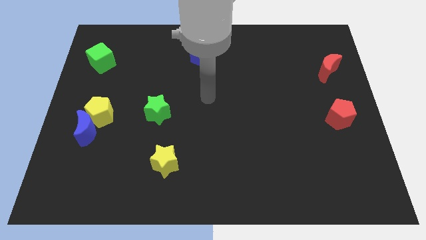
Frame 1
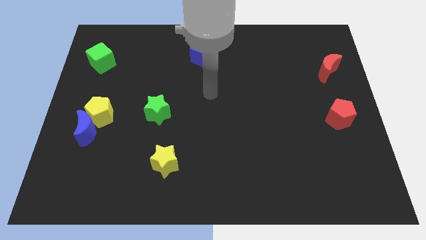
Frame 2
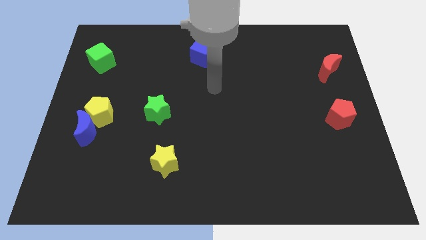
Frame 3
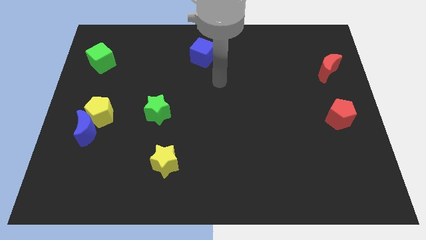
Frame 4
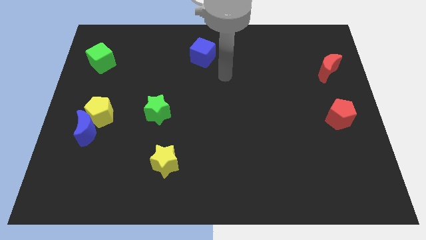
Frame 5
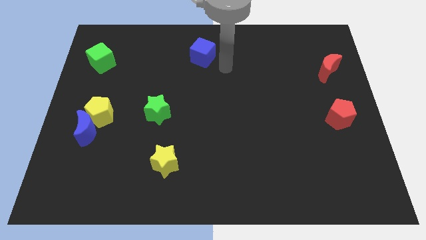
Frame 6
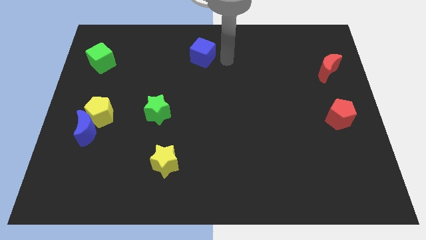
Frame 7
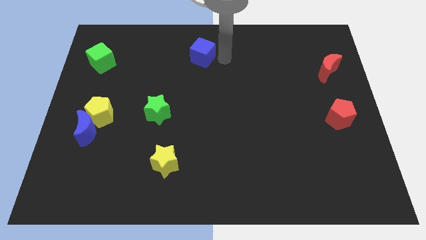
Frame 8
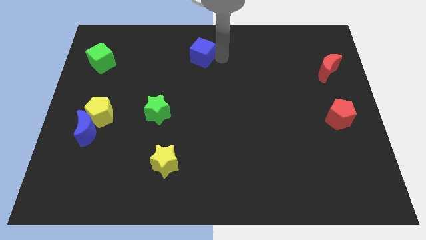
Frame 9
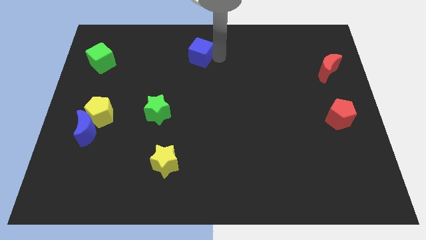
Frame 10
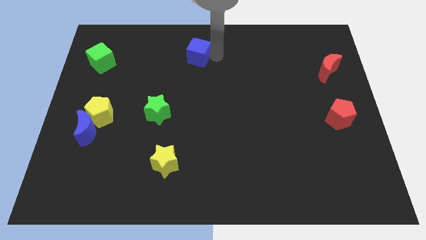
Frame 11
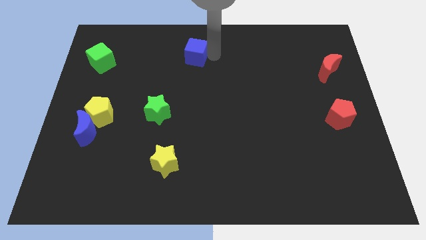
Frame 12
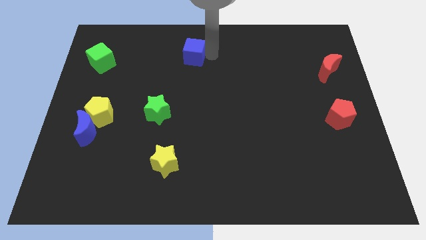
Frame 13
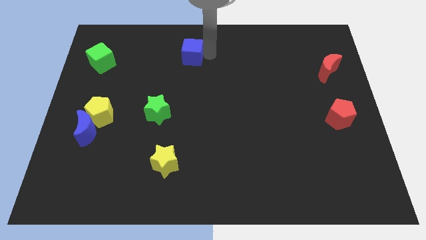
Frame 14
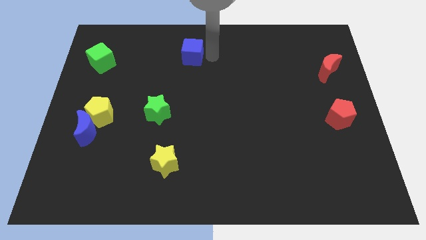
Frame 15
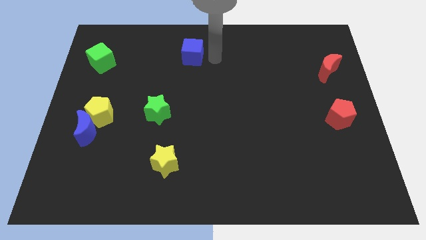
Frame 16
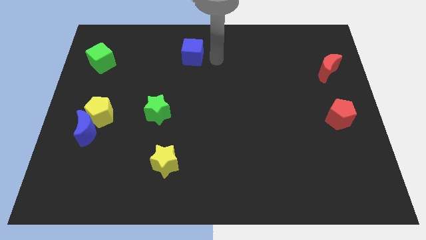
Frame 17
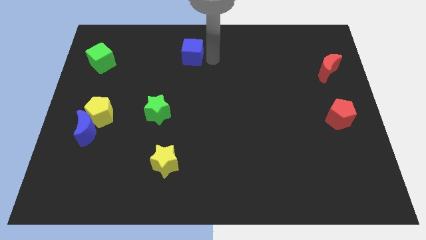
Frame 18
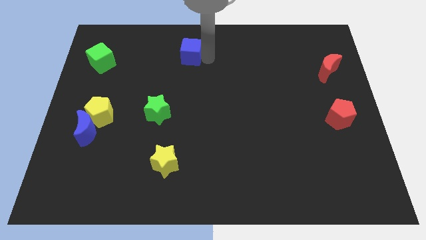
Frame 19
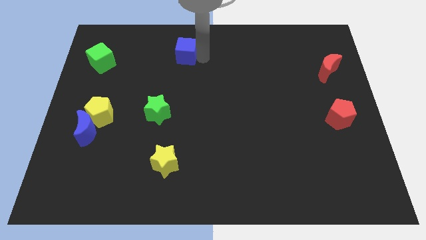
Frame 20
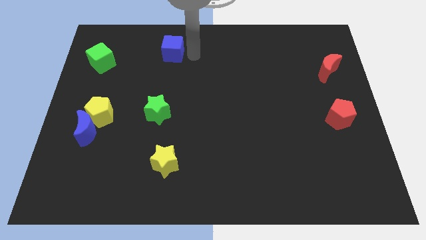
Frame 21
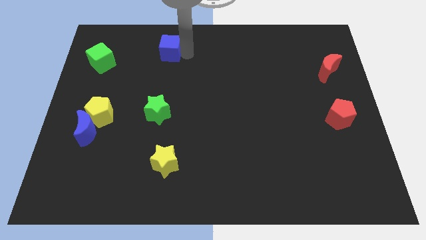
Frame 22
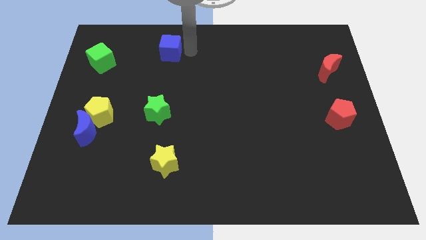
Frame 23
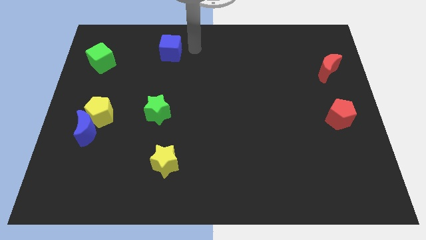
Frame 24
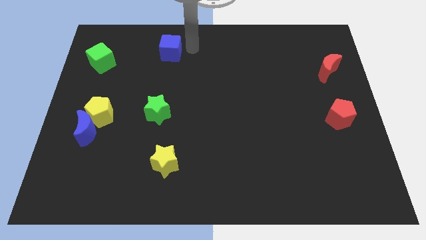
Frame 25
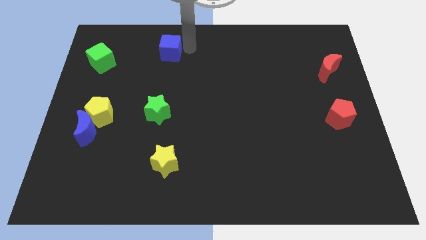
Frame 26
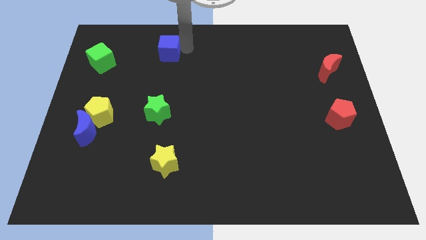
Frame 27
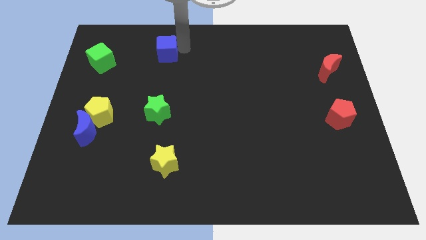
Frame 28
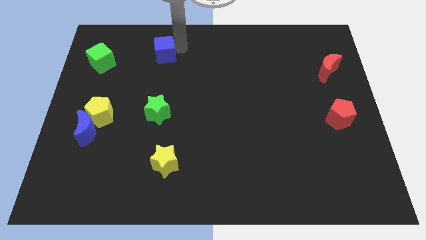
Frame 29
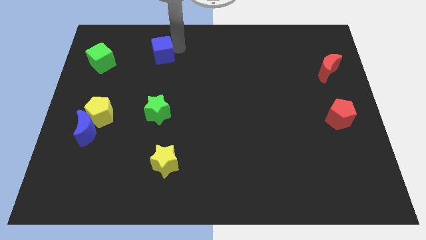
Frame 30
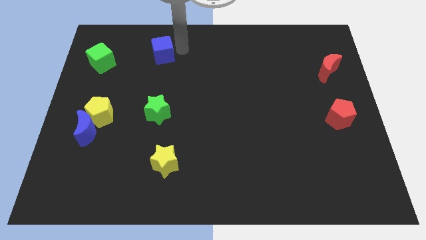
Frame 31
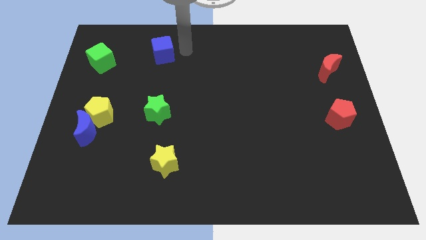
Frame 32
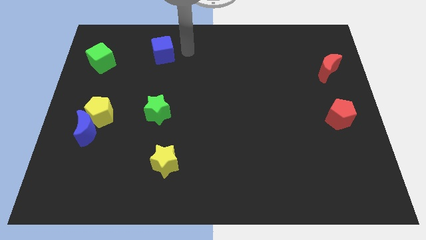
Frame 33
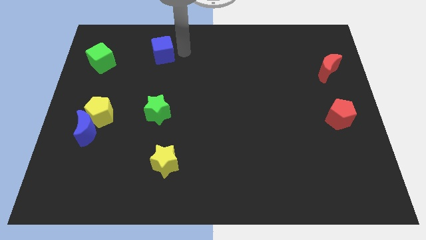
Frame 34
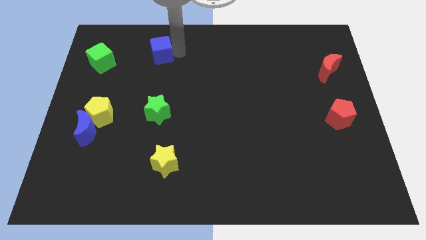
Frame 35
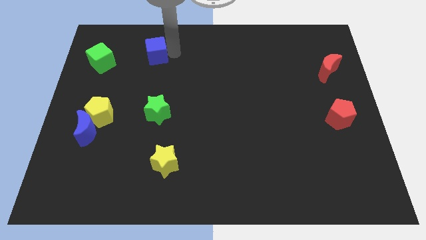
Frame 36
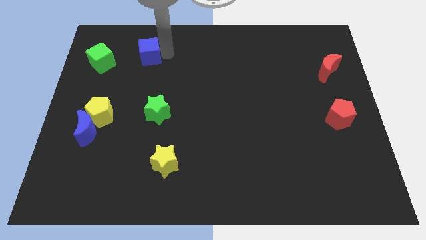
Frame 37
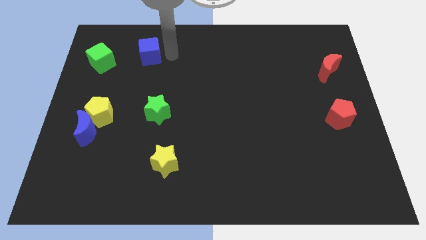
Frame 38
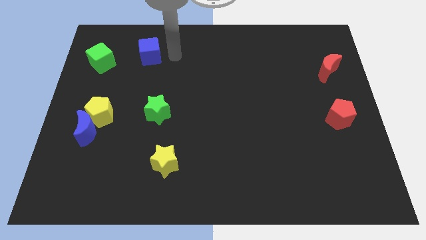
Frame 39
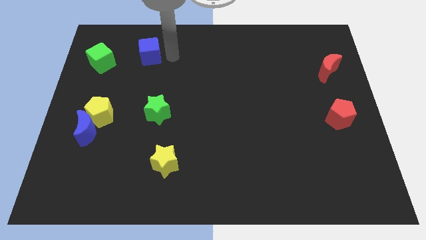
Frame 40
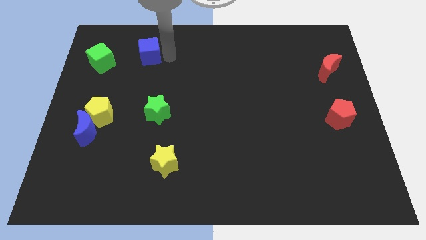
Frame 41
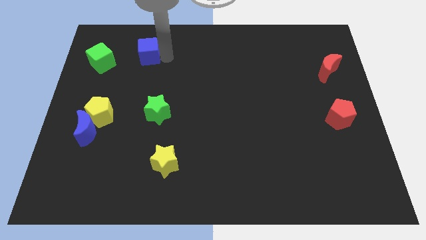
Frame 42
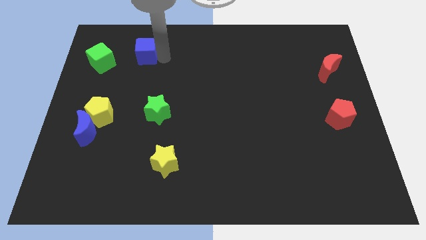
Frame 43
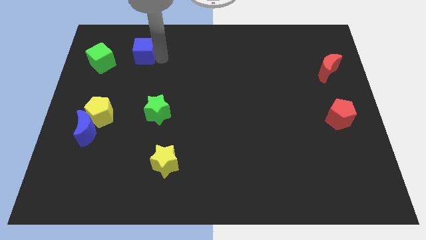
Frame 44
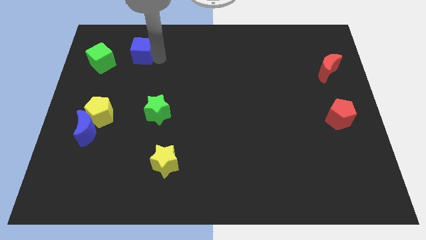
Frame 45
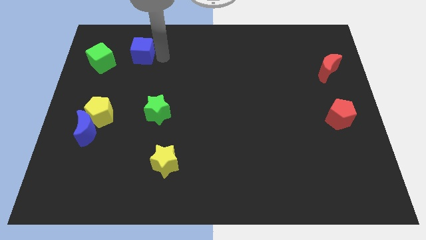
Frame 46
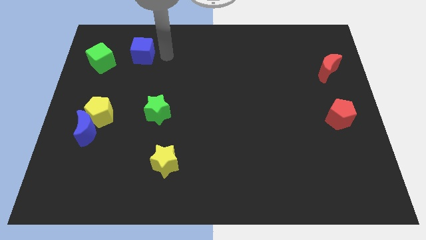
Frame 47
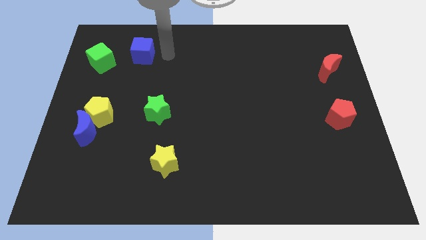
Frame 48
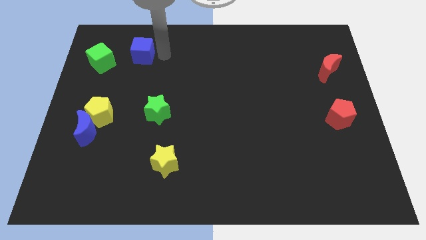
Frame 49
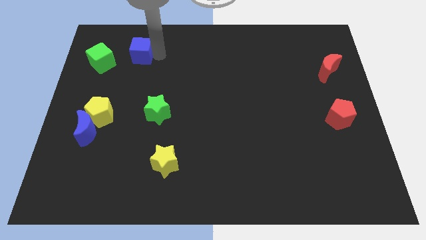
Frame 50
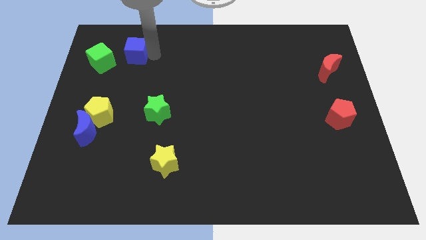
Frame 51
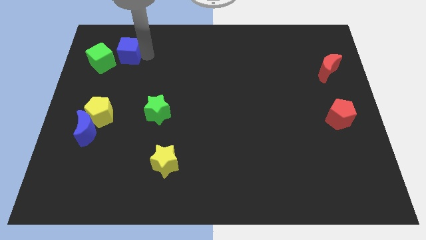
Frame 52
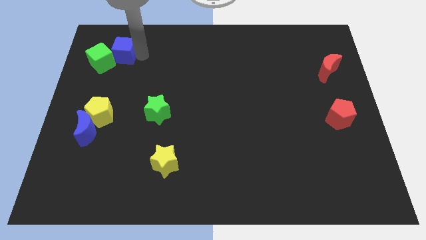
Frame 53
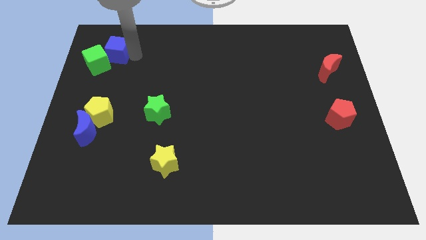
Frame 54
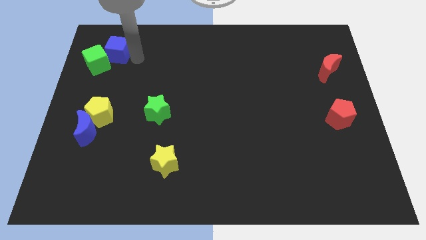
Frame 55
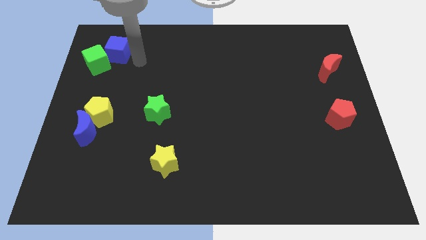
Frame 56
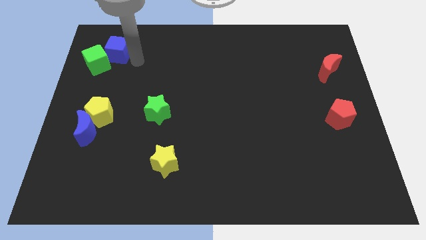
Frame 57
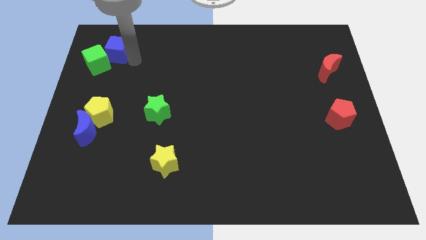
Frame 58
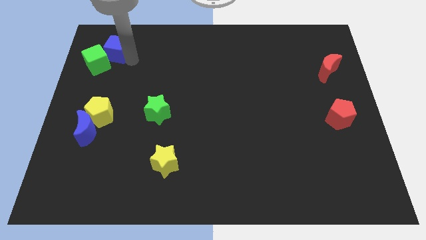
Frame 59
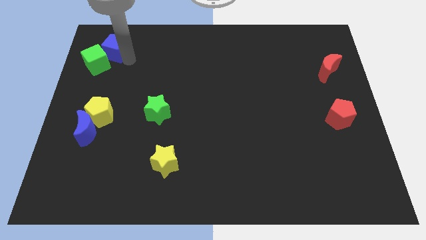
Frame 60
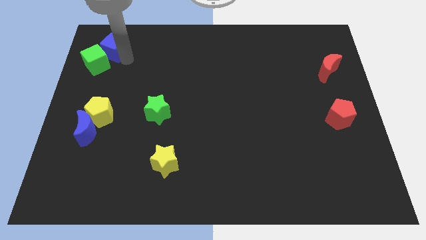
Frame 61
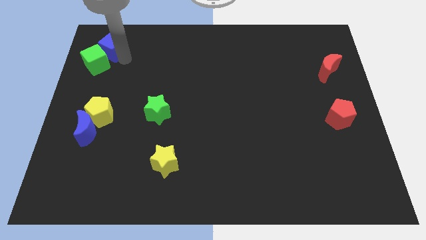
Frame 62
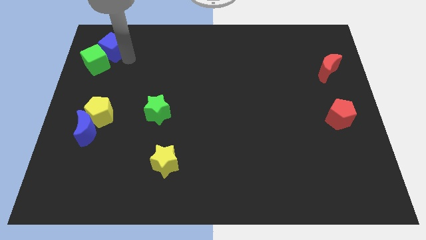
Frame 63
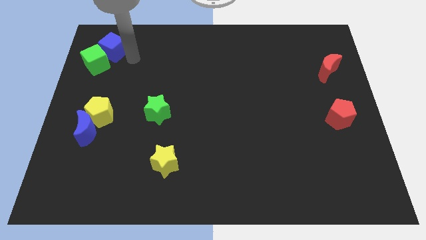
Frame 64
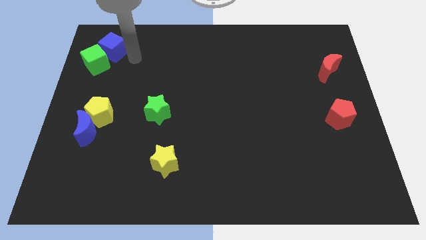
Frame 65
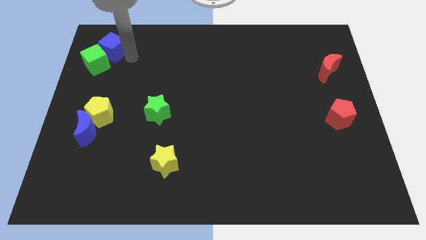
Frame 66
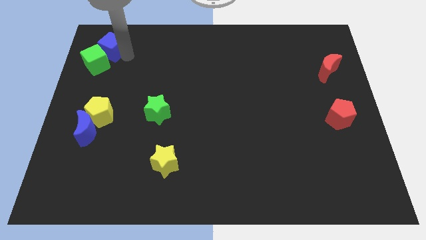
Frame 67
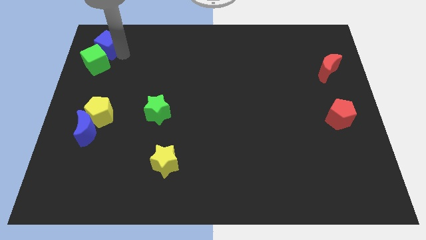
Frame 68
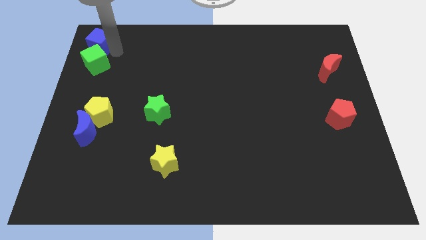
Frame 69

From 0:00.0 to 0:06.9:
put the blue cube to the upper left corner
